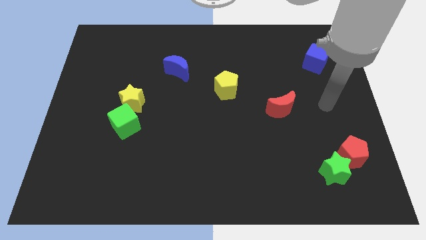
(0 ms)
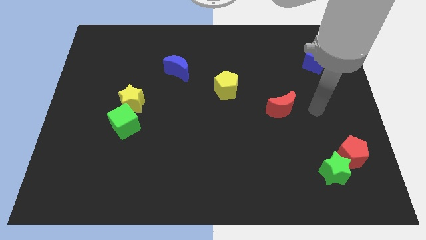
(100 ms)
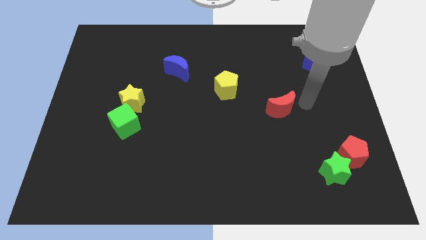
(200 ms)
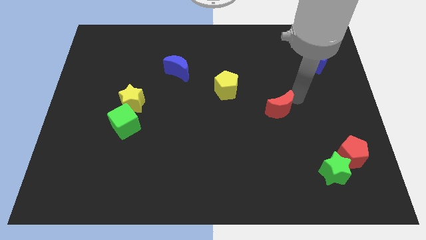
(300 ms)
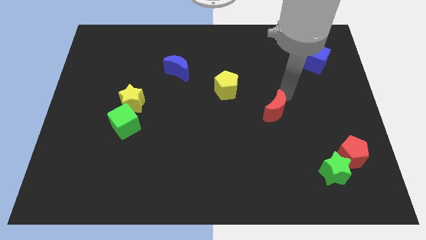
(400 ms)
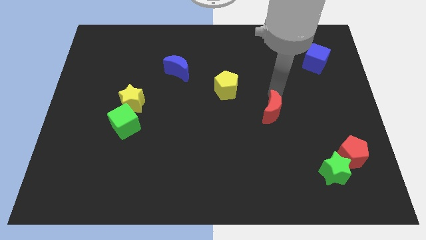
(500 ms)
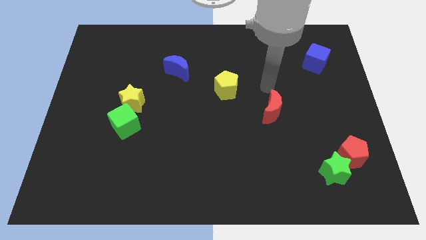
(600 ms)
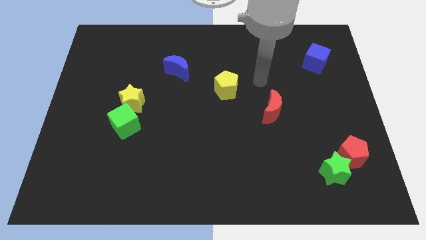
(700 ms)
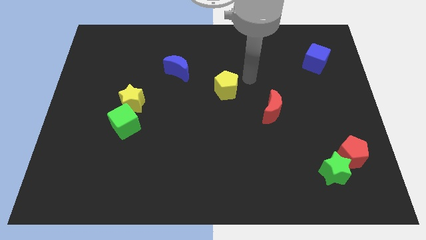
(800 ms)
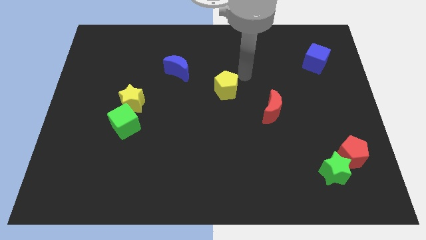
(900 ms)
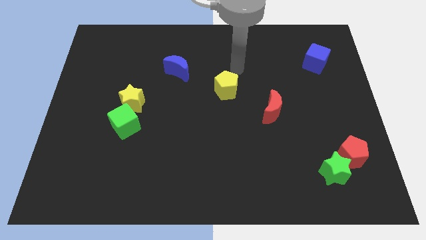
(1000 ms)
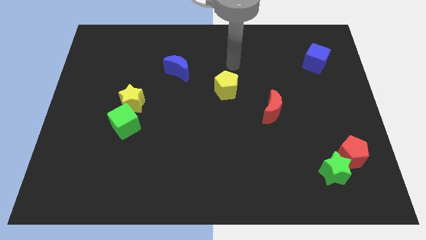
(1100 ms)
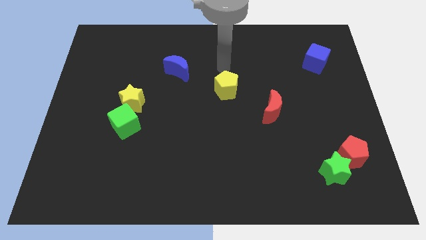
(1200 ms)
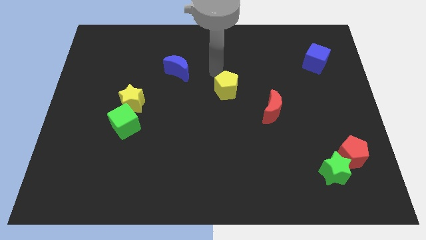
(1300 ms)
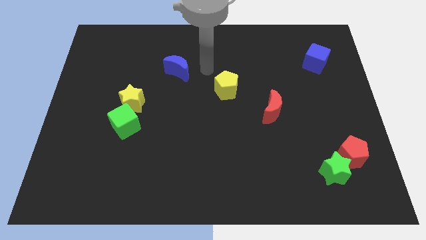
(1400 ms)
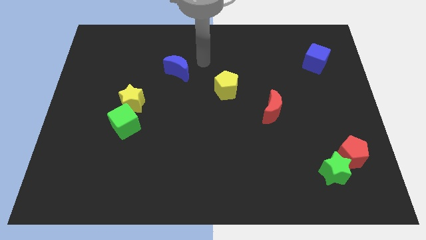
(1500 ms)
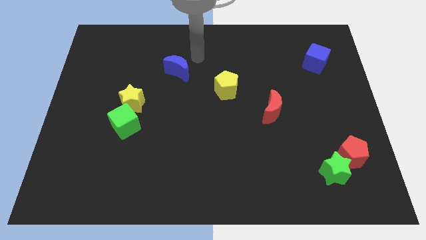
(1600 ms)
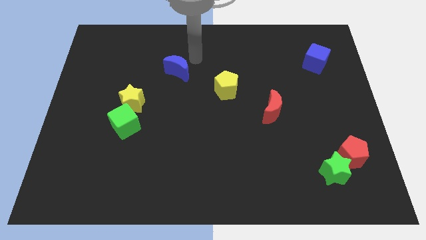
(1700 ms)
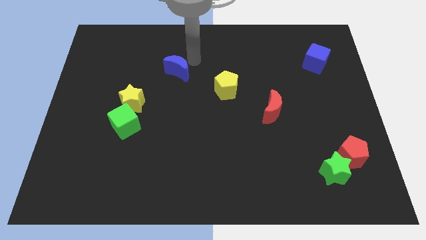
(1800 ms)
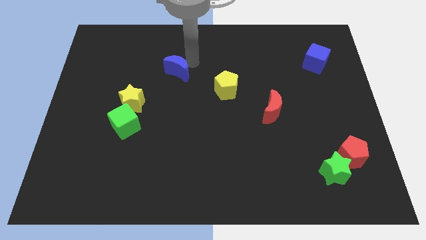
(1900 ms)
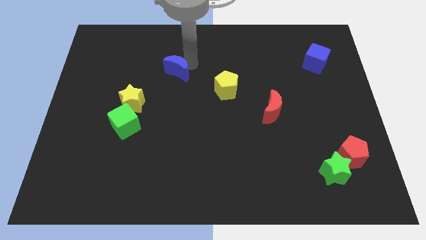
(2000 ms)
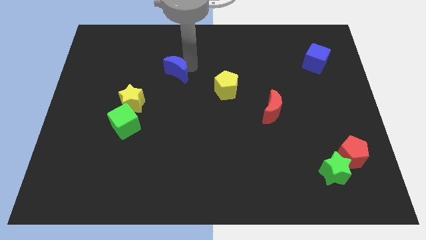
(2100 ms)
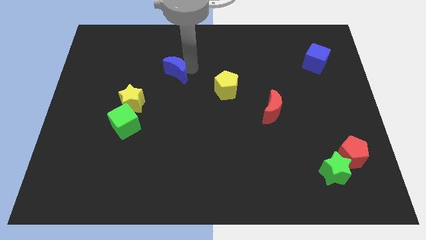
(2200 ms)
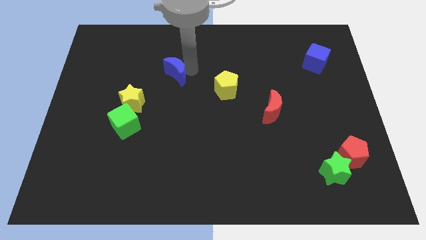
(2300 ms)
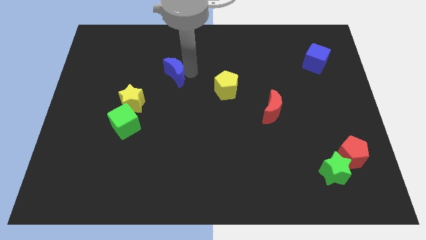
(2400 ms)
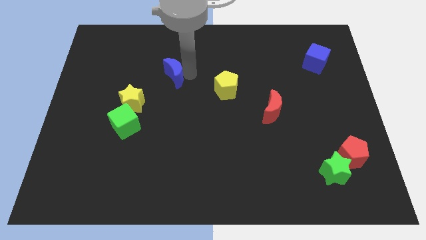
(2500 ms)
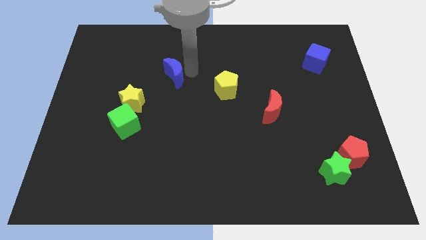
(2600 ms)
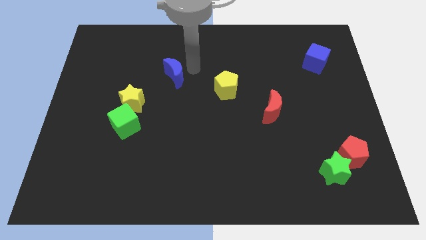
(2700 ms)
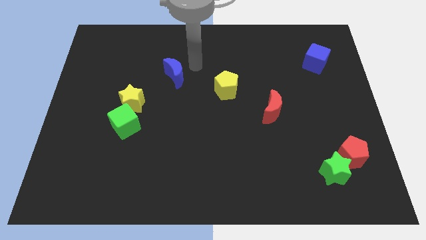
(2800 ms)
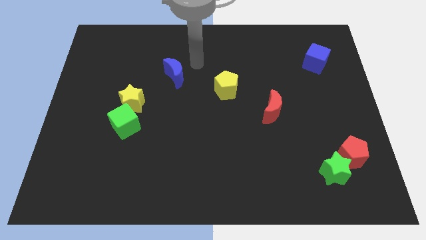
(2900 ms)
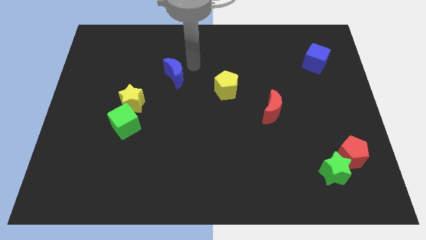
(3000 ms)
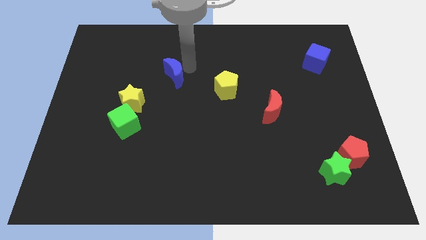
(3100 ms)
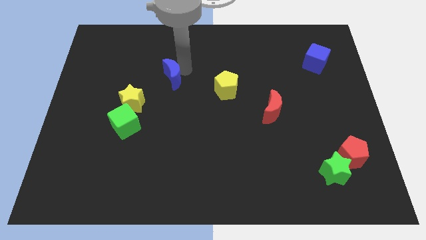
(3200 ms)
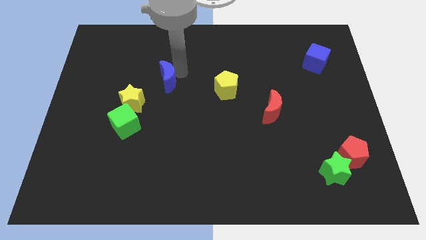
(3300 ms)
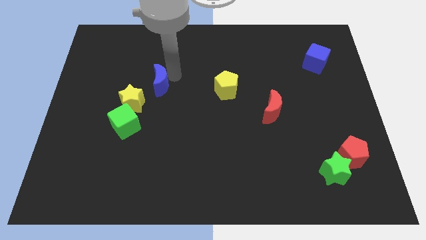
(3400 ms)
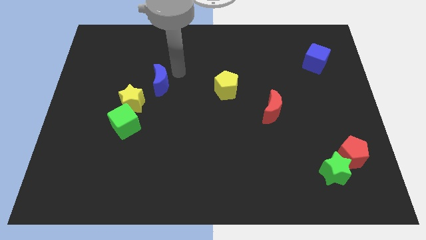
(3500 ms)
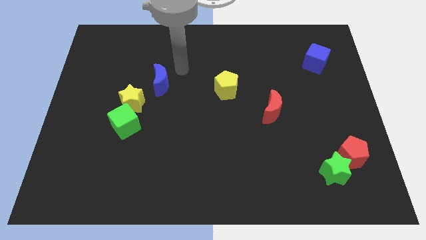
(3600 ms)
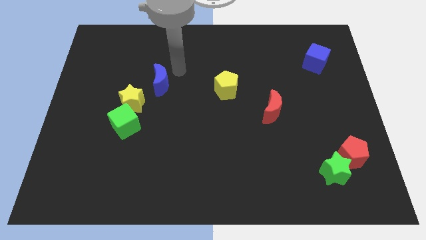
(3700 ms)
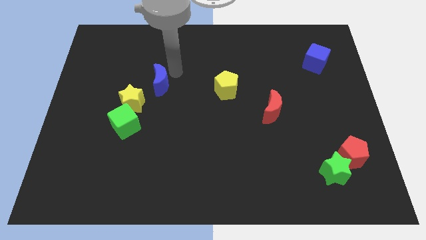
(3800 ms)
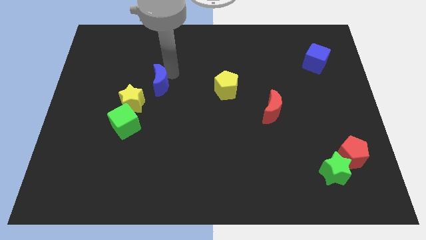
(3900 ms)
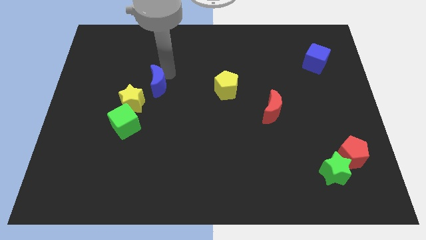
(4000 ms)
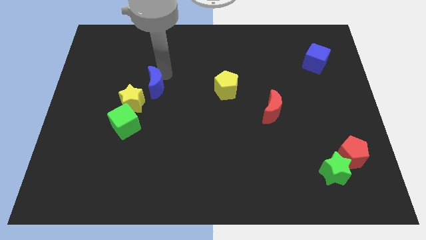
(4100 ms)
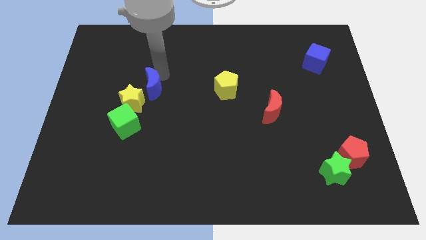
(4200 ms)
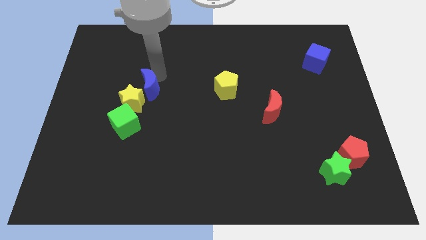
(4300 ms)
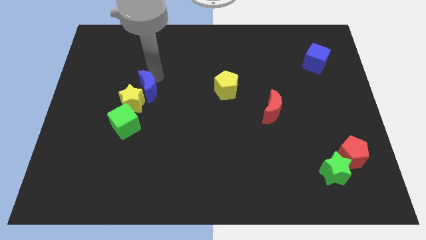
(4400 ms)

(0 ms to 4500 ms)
push the blue moon towards the yellow star

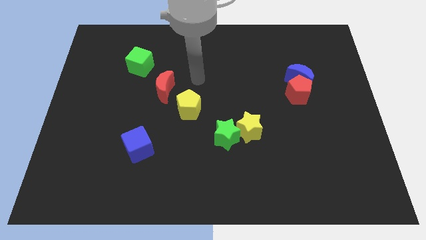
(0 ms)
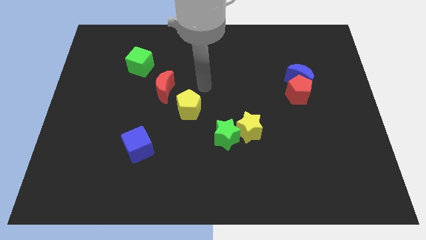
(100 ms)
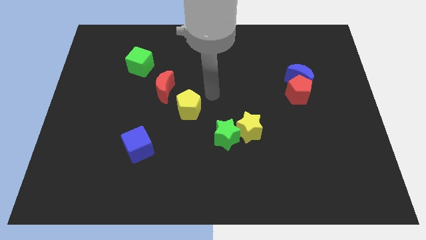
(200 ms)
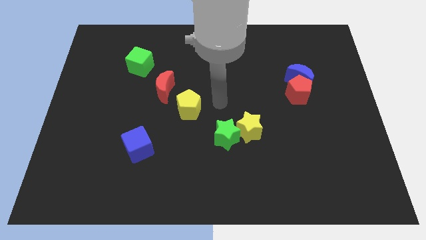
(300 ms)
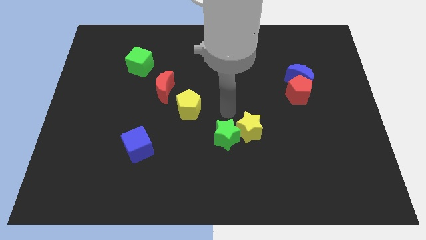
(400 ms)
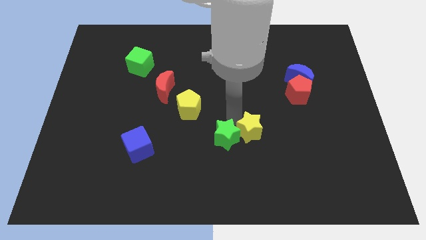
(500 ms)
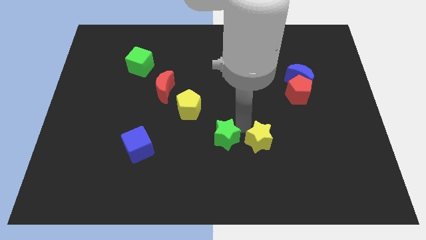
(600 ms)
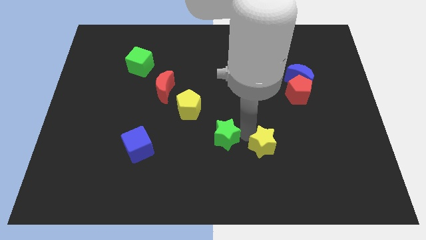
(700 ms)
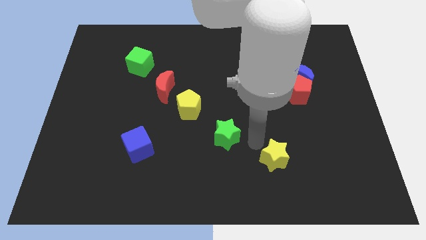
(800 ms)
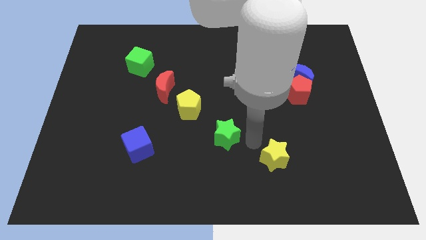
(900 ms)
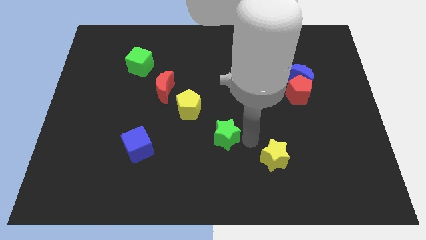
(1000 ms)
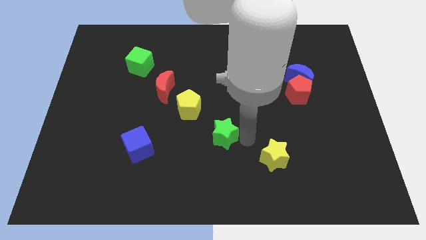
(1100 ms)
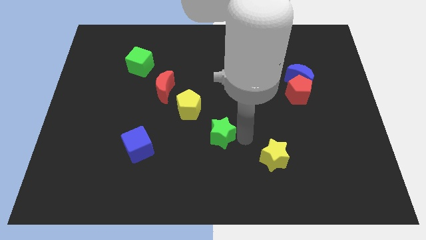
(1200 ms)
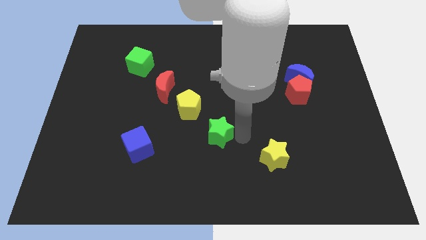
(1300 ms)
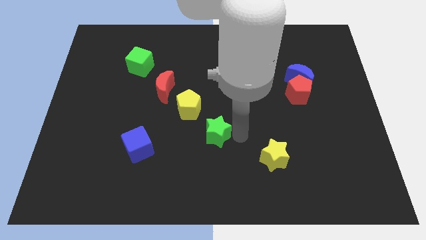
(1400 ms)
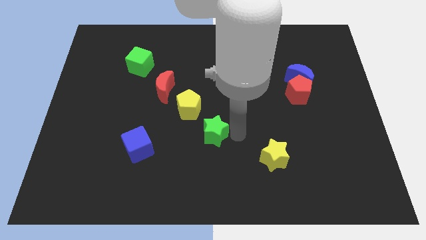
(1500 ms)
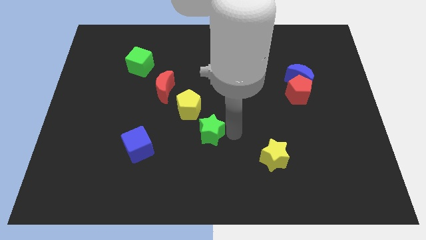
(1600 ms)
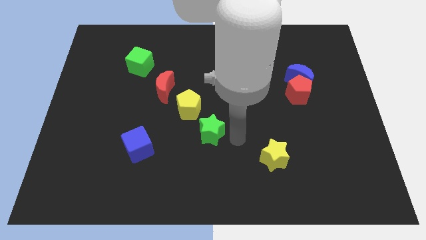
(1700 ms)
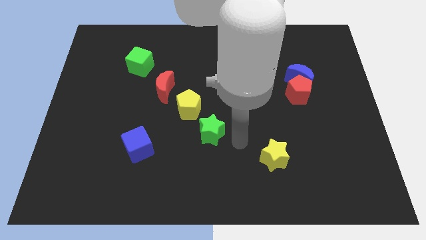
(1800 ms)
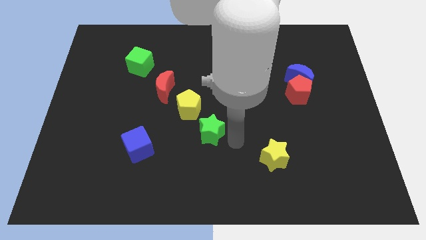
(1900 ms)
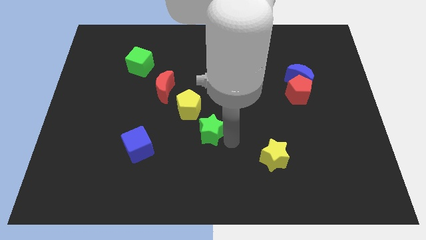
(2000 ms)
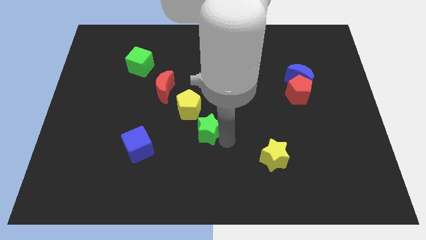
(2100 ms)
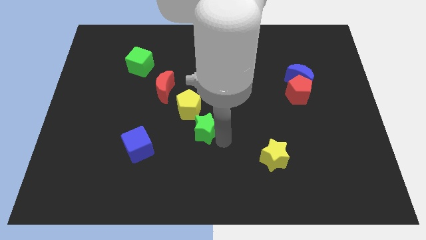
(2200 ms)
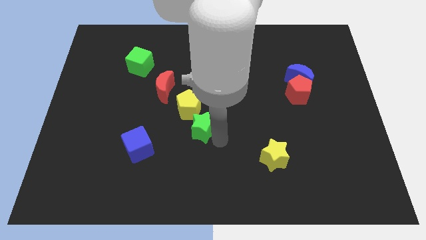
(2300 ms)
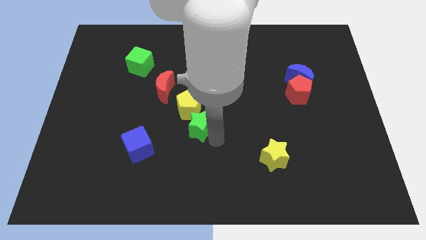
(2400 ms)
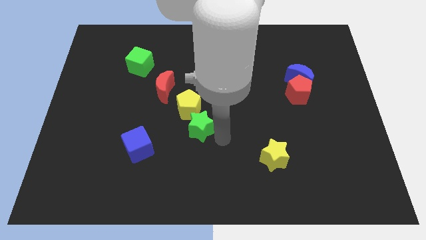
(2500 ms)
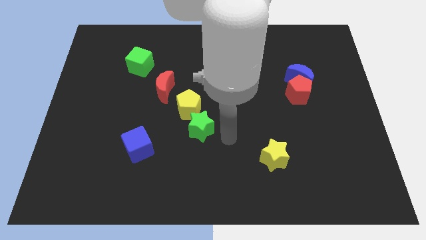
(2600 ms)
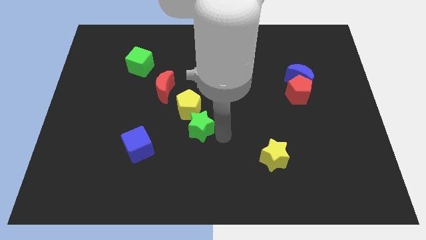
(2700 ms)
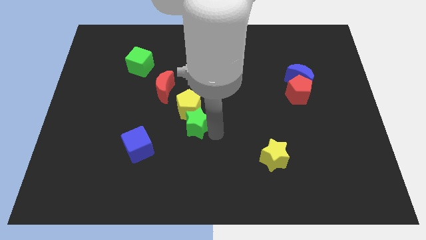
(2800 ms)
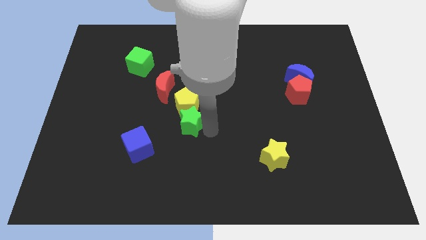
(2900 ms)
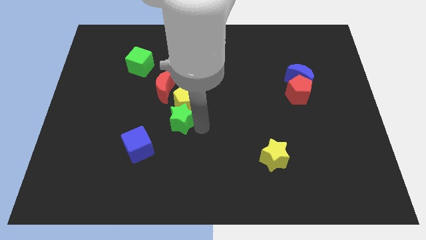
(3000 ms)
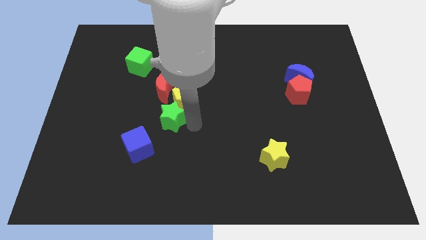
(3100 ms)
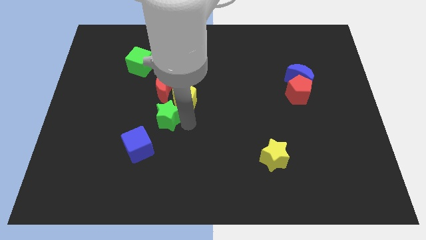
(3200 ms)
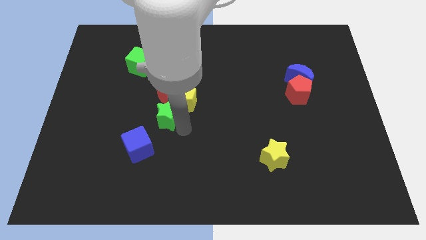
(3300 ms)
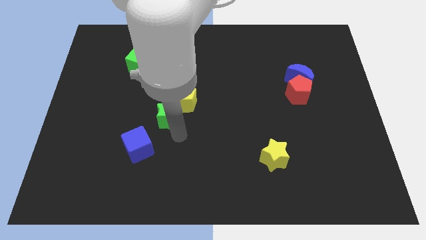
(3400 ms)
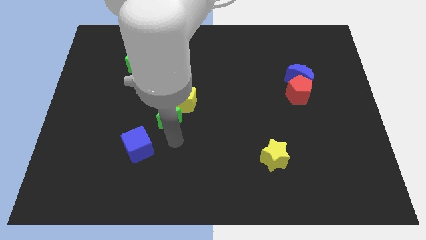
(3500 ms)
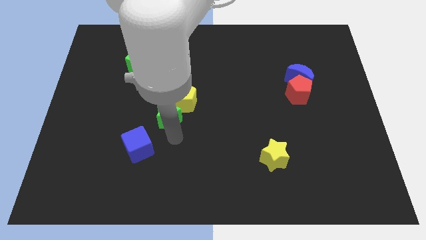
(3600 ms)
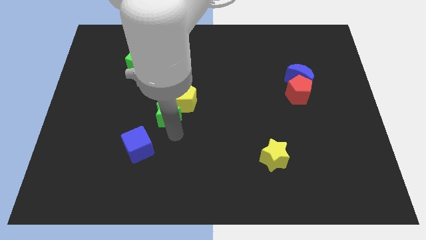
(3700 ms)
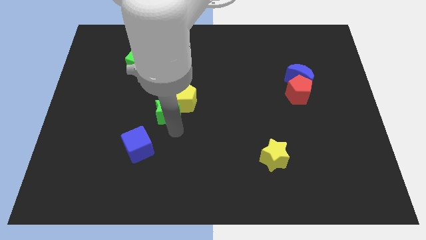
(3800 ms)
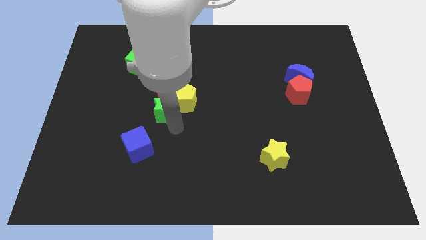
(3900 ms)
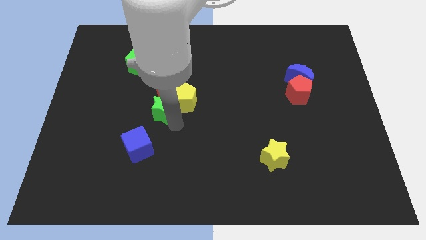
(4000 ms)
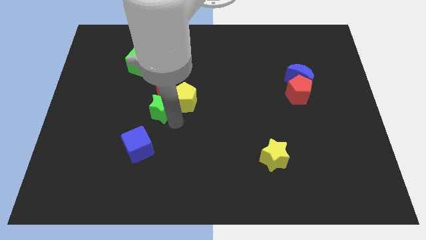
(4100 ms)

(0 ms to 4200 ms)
put the green star to the red moon
